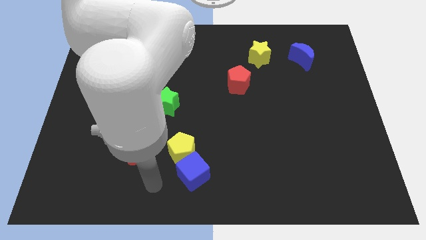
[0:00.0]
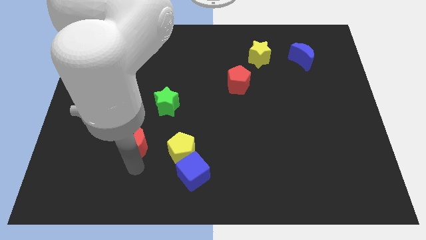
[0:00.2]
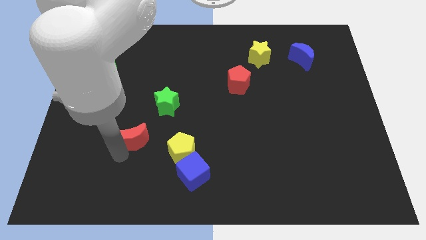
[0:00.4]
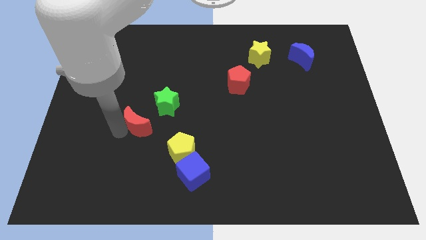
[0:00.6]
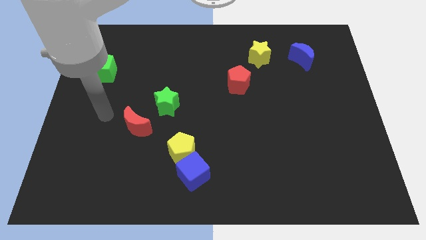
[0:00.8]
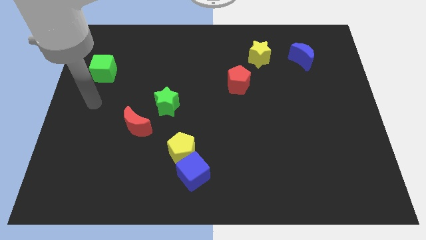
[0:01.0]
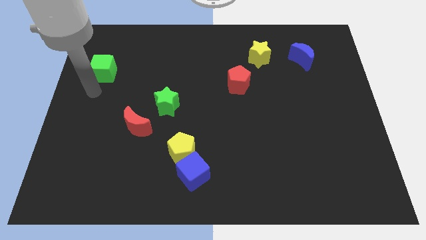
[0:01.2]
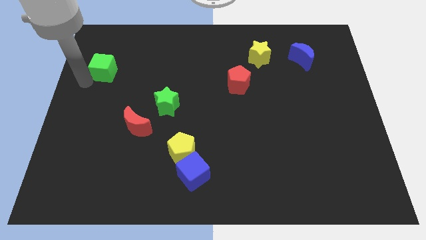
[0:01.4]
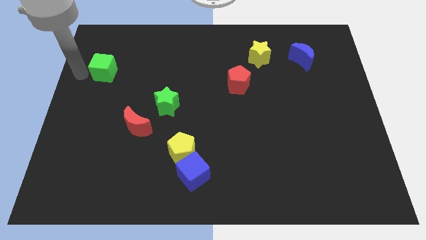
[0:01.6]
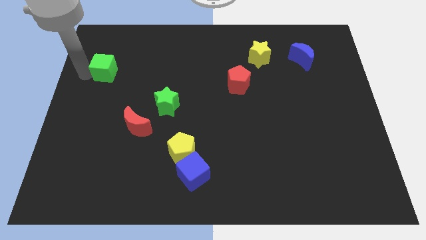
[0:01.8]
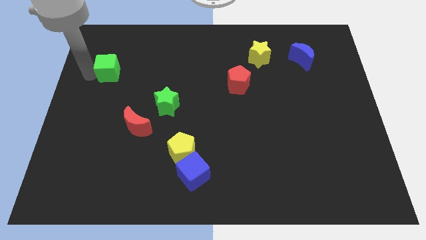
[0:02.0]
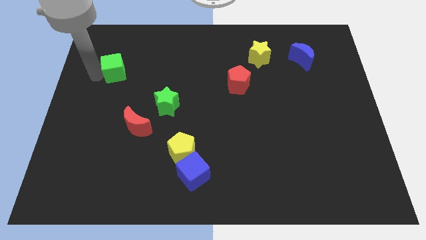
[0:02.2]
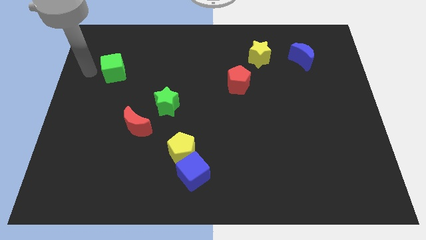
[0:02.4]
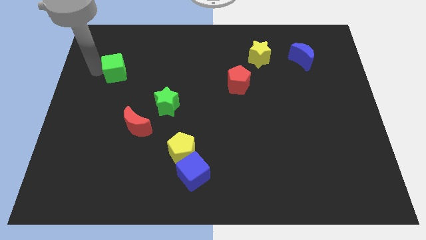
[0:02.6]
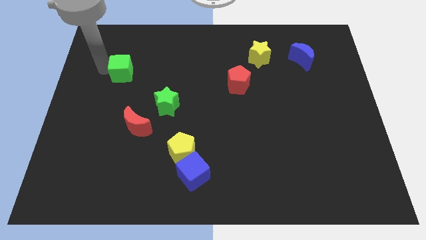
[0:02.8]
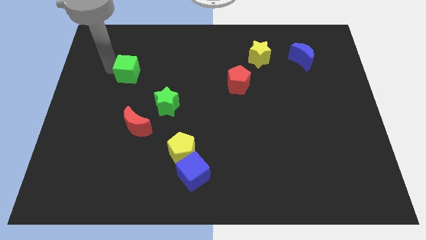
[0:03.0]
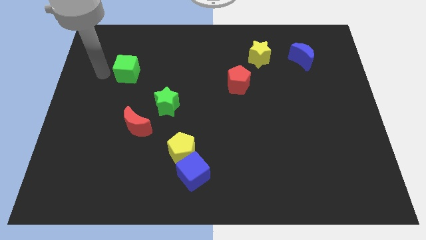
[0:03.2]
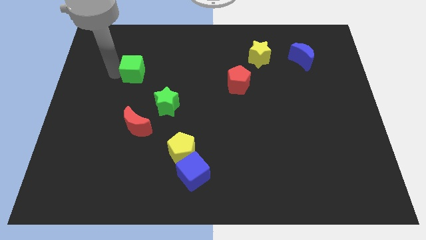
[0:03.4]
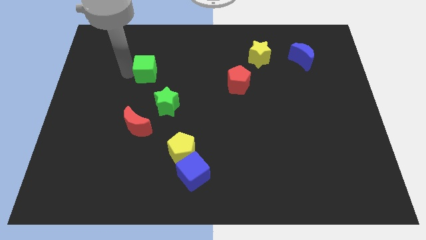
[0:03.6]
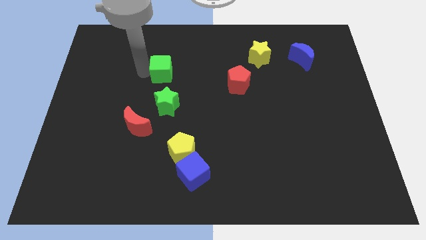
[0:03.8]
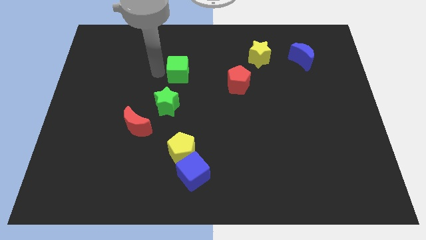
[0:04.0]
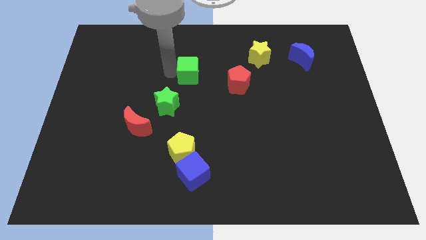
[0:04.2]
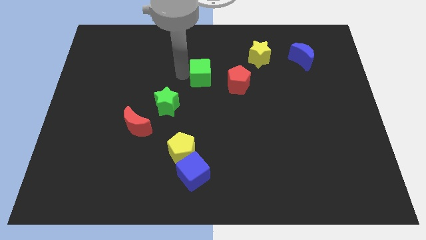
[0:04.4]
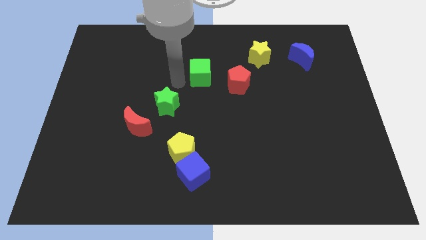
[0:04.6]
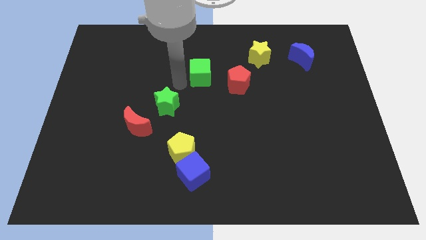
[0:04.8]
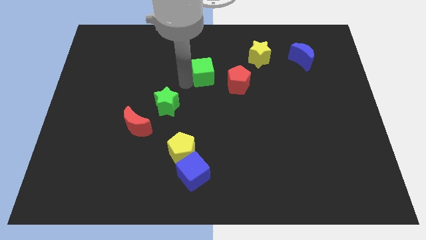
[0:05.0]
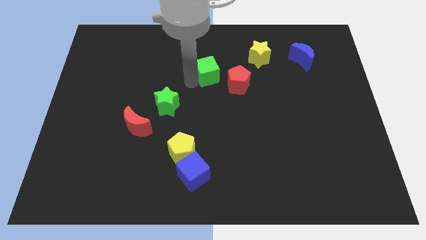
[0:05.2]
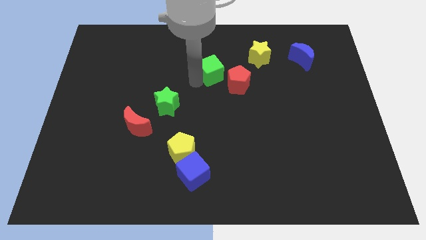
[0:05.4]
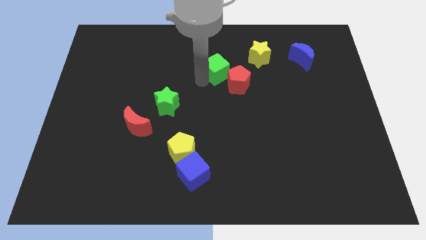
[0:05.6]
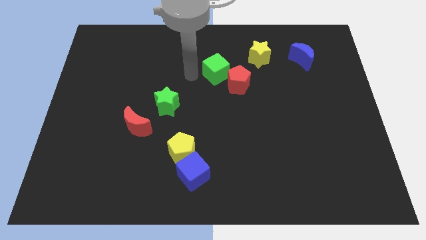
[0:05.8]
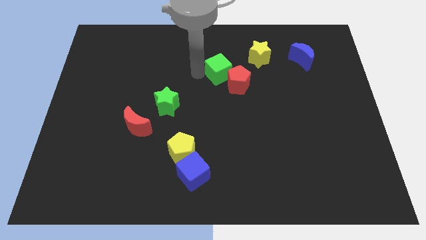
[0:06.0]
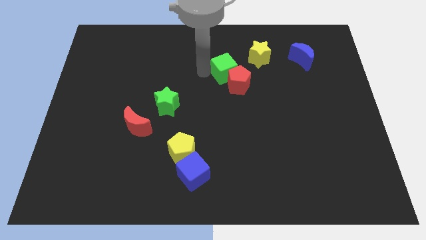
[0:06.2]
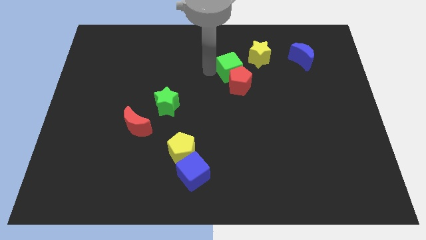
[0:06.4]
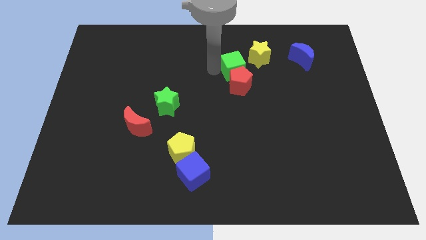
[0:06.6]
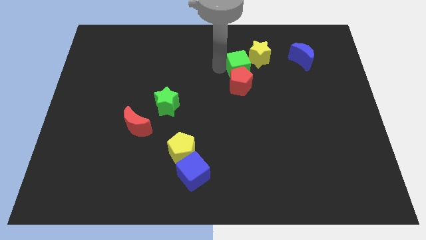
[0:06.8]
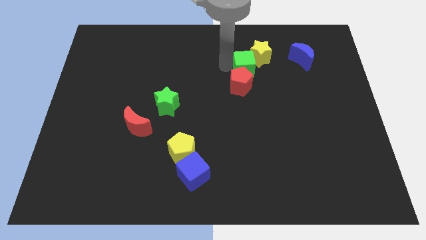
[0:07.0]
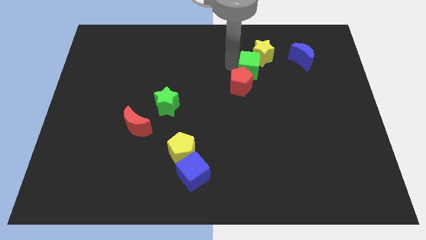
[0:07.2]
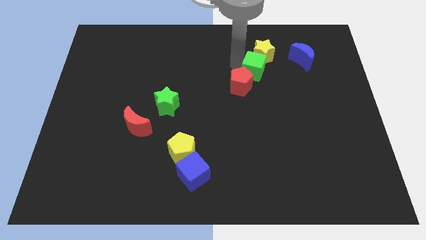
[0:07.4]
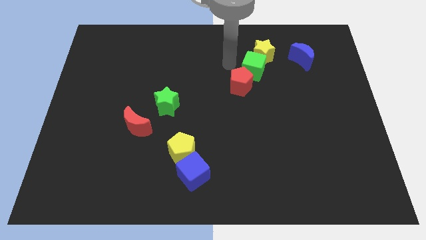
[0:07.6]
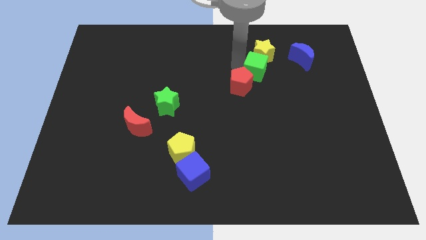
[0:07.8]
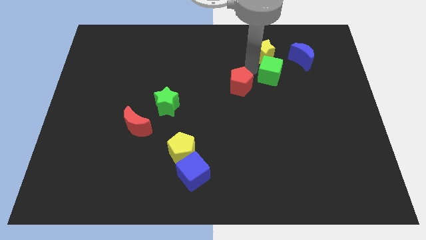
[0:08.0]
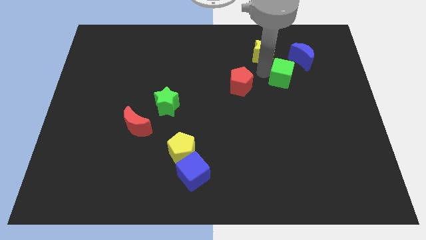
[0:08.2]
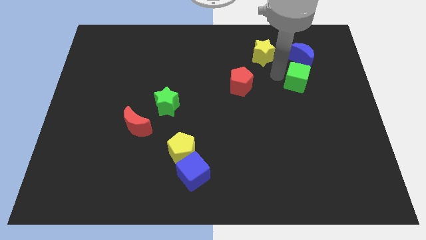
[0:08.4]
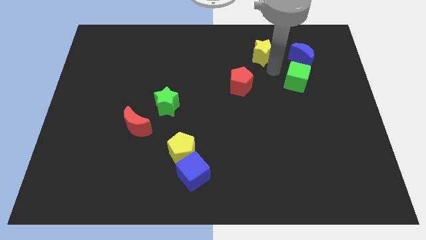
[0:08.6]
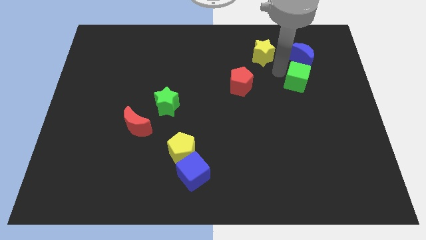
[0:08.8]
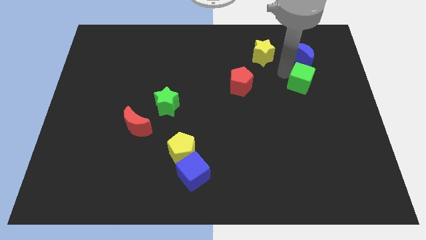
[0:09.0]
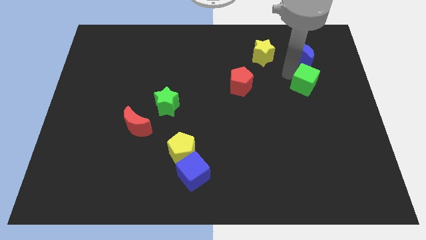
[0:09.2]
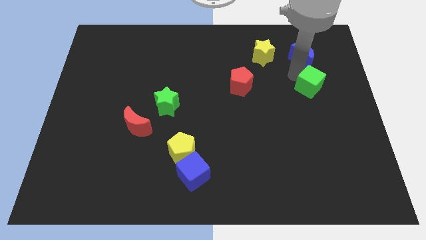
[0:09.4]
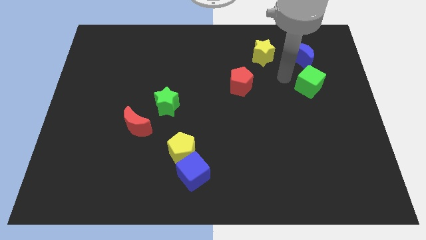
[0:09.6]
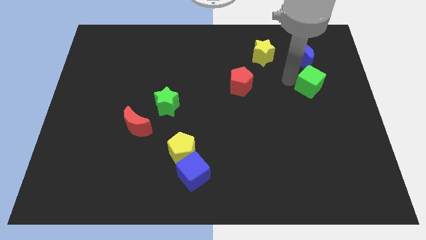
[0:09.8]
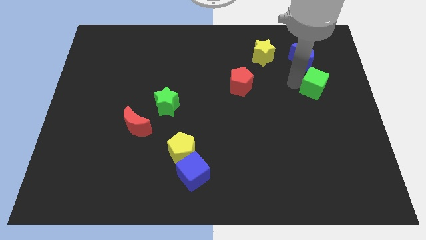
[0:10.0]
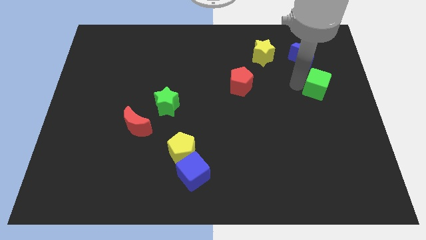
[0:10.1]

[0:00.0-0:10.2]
push the green cube to the right side of the board

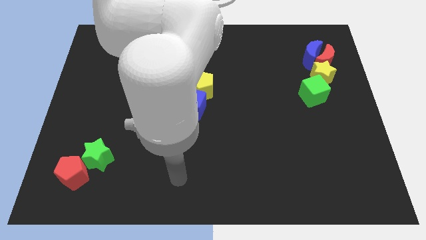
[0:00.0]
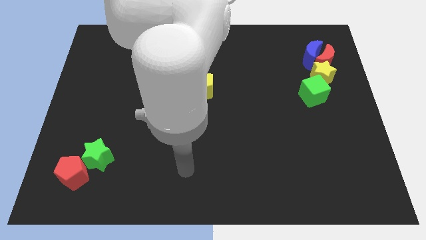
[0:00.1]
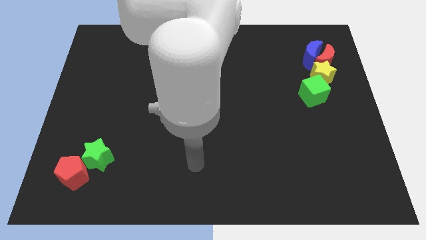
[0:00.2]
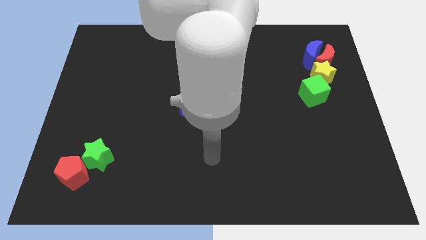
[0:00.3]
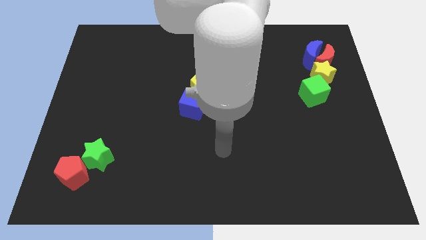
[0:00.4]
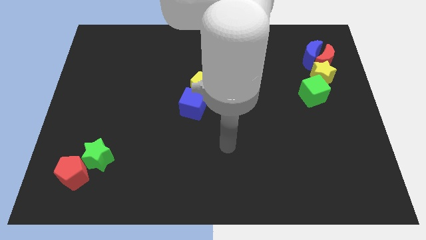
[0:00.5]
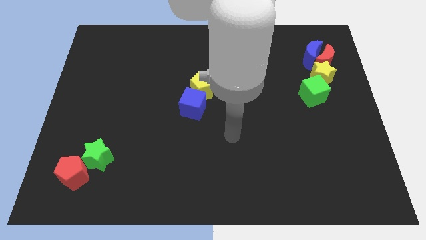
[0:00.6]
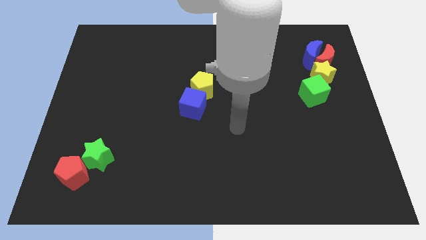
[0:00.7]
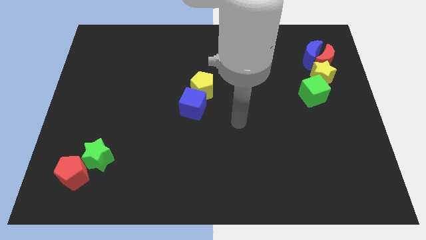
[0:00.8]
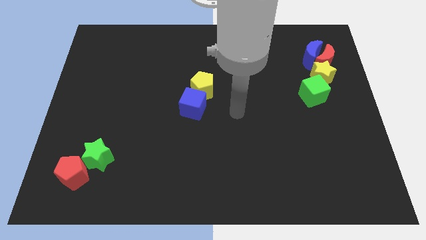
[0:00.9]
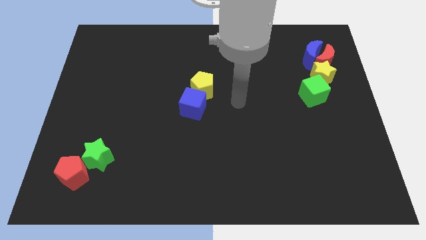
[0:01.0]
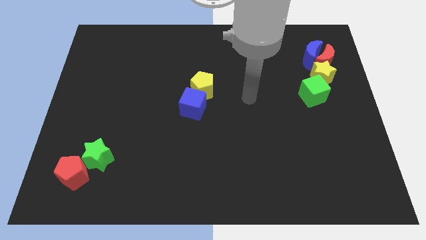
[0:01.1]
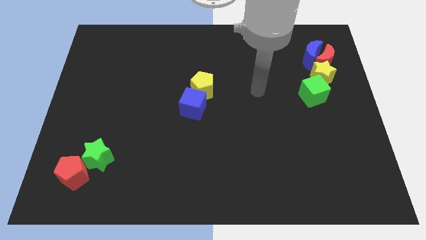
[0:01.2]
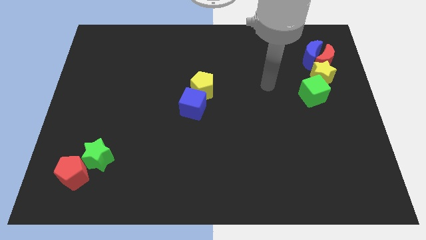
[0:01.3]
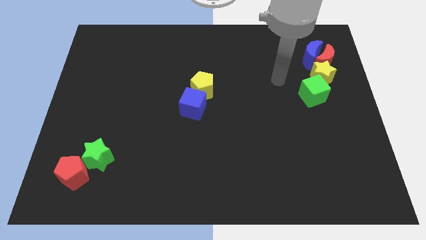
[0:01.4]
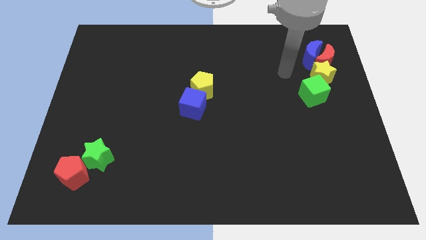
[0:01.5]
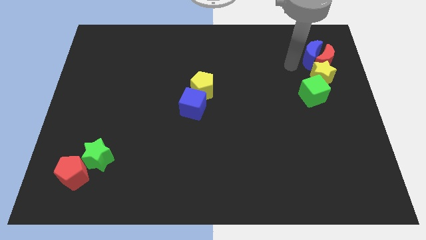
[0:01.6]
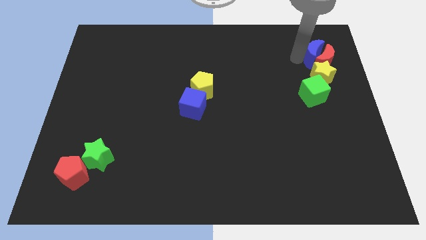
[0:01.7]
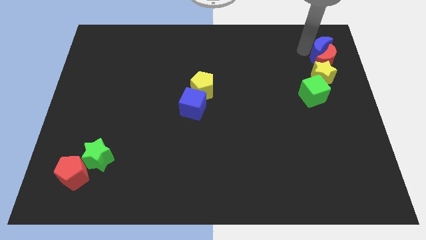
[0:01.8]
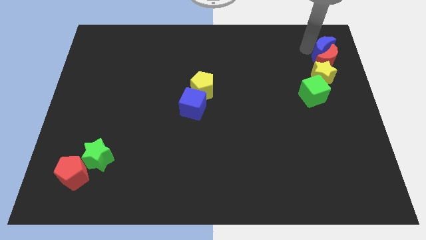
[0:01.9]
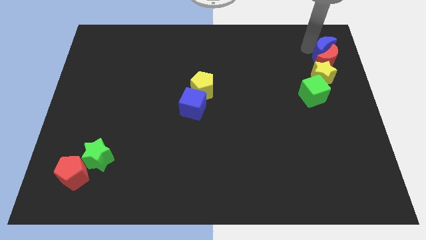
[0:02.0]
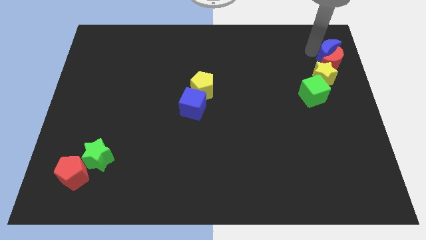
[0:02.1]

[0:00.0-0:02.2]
move the red moon to the center right
